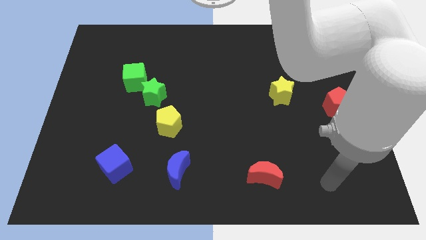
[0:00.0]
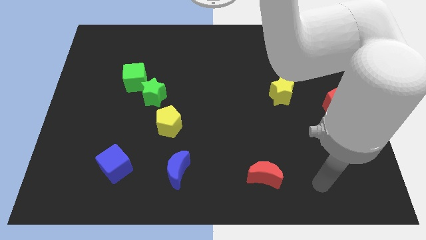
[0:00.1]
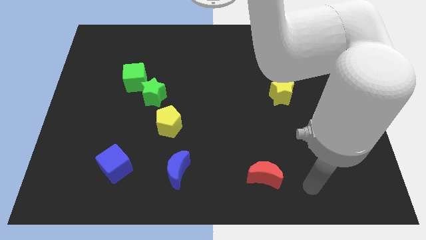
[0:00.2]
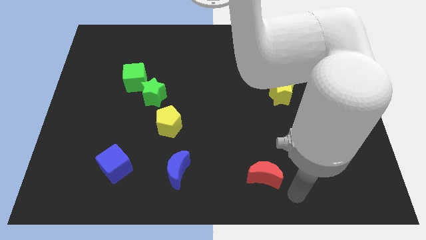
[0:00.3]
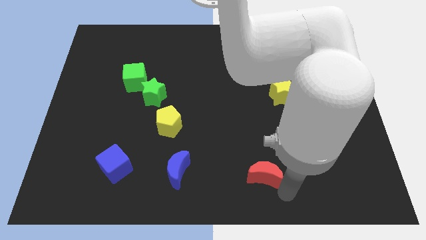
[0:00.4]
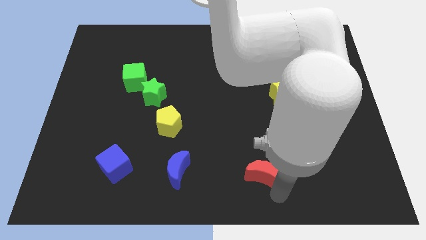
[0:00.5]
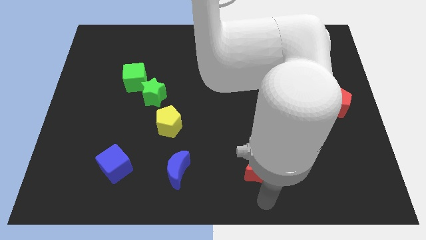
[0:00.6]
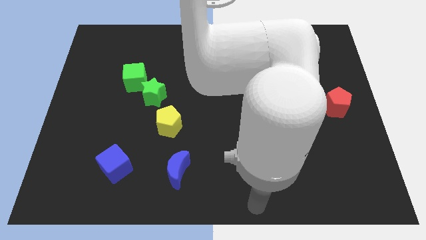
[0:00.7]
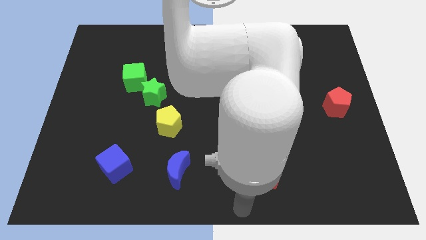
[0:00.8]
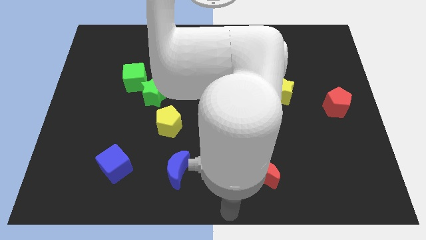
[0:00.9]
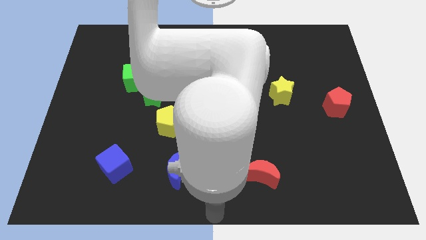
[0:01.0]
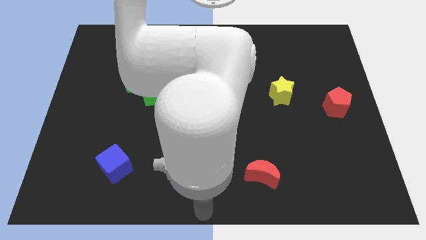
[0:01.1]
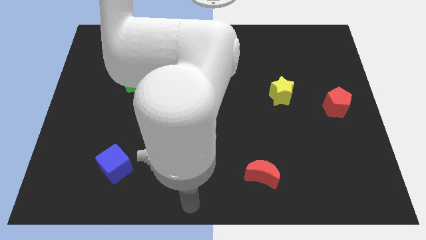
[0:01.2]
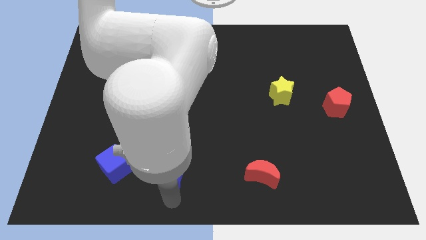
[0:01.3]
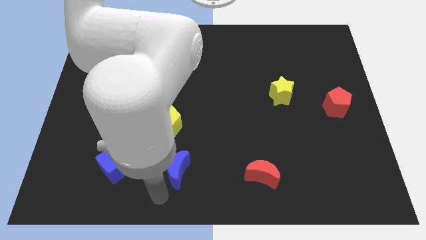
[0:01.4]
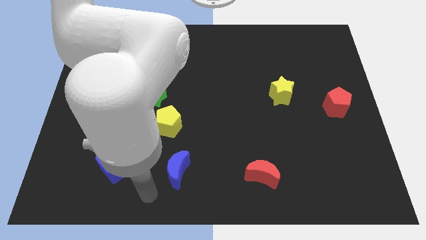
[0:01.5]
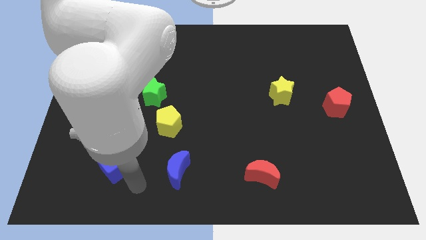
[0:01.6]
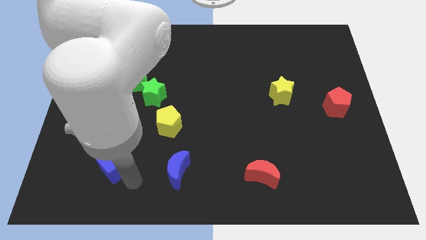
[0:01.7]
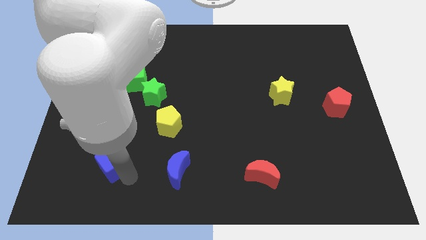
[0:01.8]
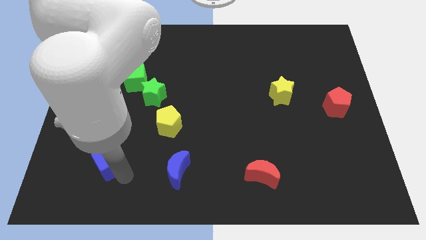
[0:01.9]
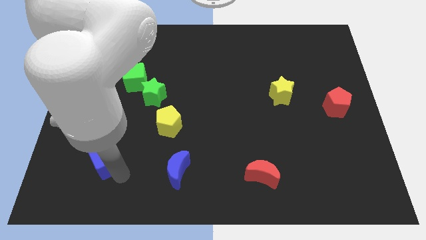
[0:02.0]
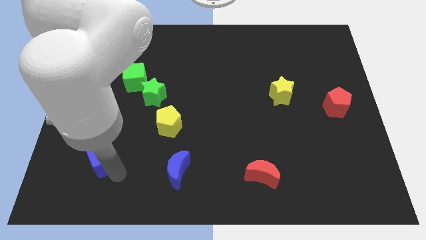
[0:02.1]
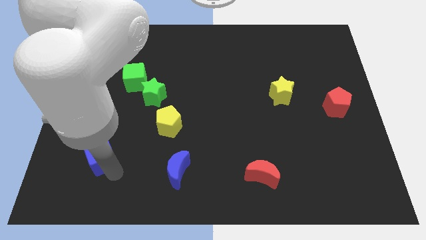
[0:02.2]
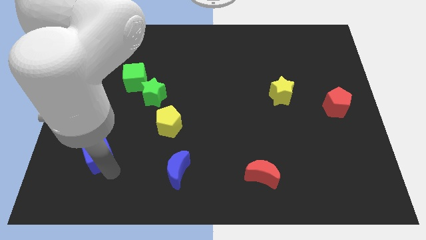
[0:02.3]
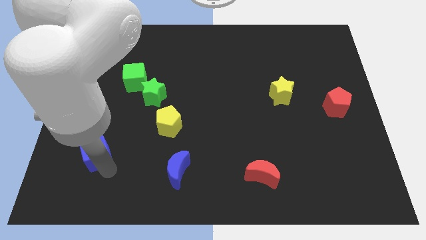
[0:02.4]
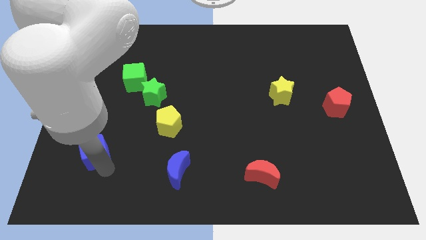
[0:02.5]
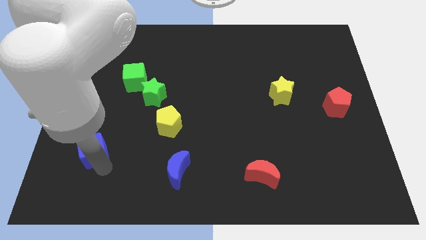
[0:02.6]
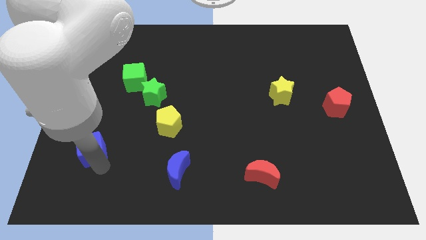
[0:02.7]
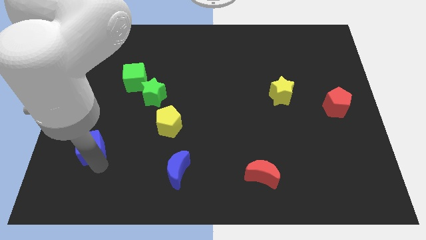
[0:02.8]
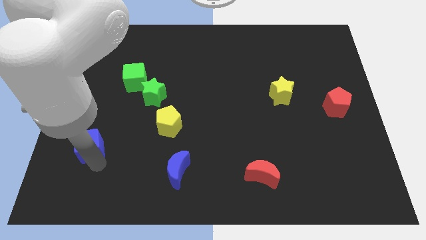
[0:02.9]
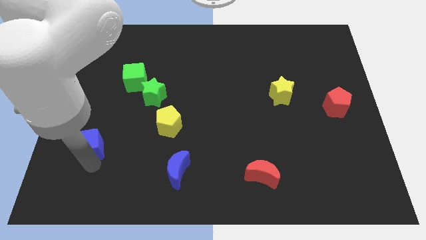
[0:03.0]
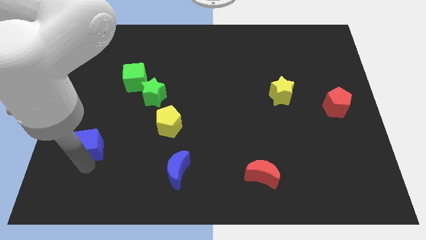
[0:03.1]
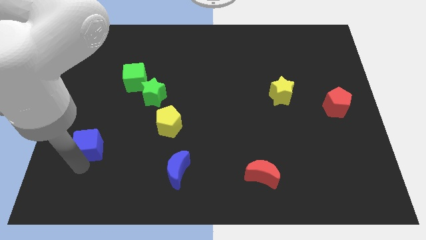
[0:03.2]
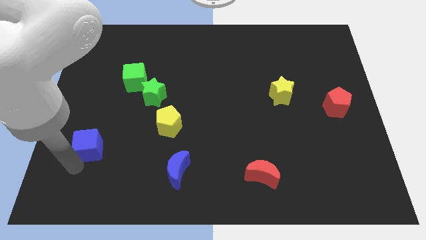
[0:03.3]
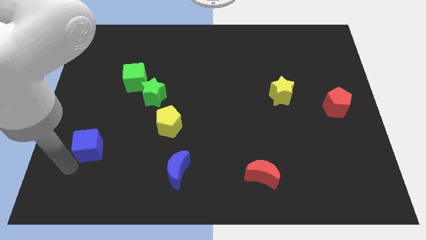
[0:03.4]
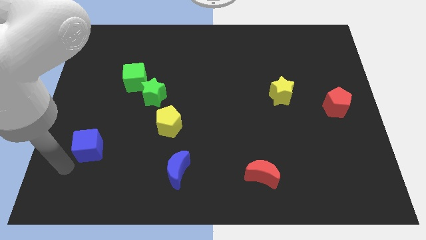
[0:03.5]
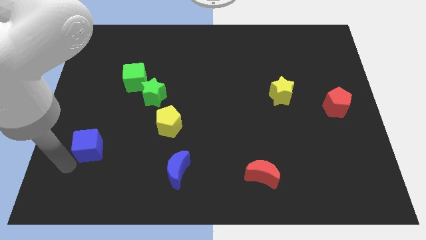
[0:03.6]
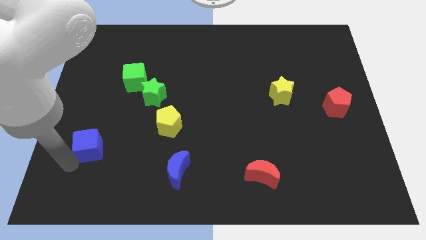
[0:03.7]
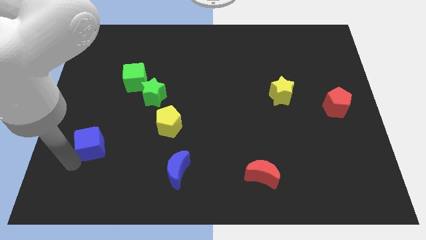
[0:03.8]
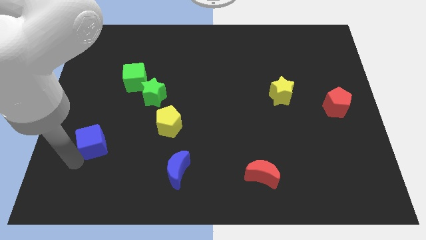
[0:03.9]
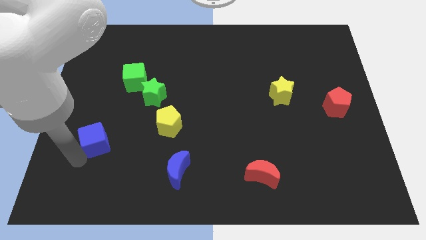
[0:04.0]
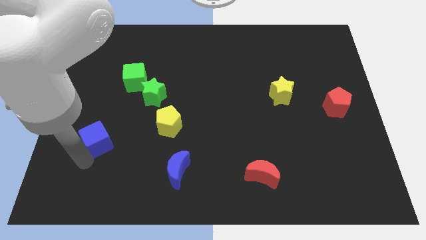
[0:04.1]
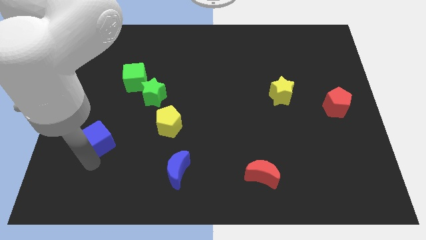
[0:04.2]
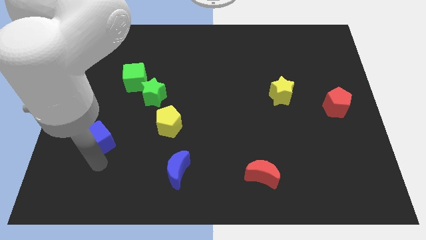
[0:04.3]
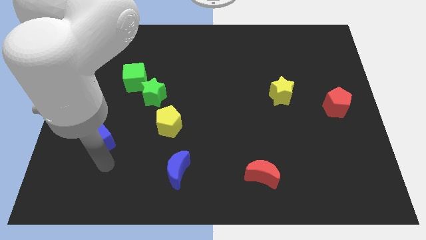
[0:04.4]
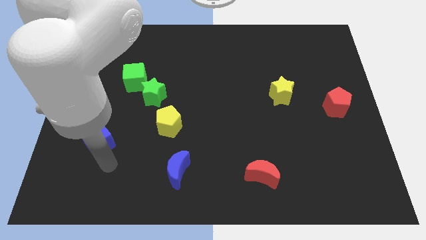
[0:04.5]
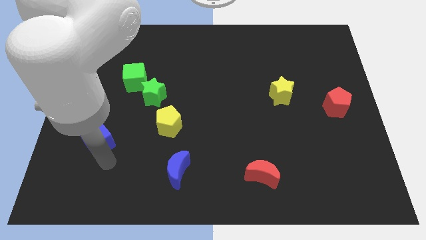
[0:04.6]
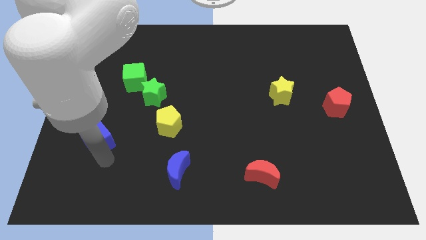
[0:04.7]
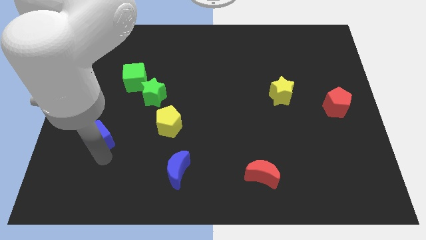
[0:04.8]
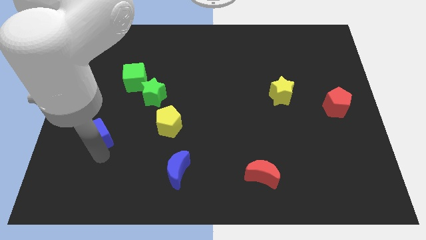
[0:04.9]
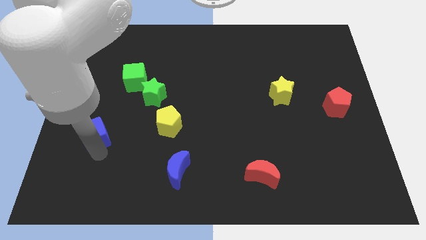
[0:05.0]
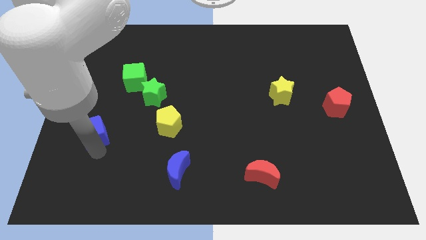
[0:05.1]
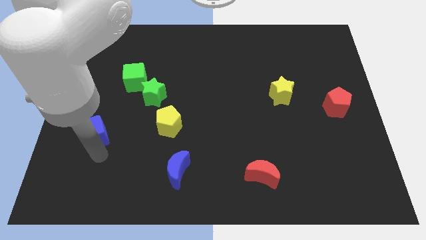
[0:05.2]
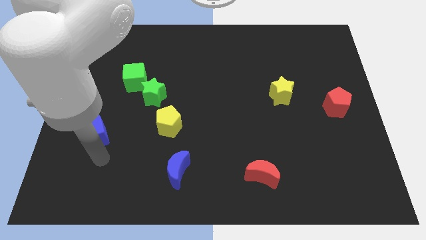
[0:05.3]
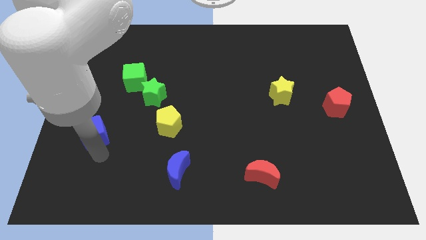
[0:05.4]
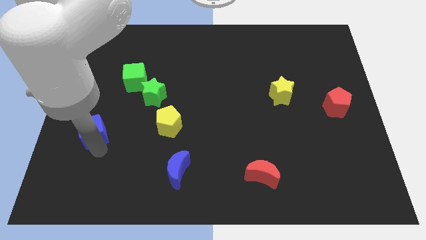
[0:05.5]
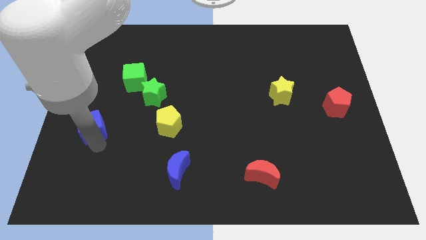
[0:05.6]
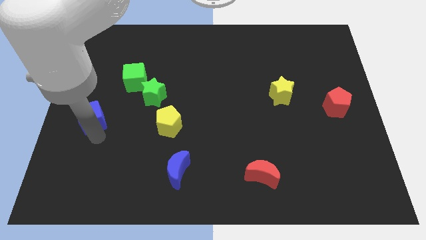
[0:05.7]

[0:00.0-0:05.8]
push the blue cube to the left side
